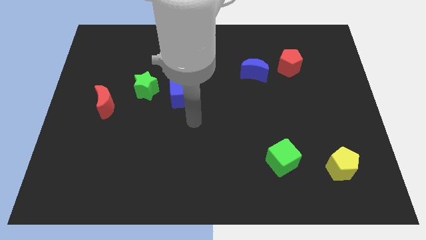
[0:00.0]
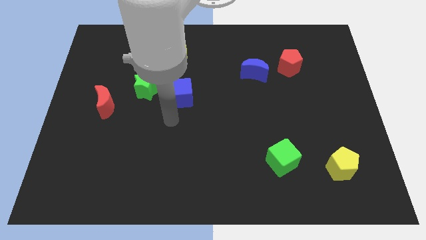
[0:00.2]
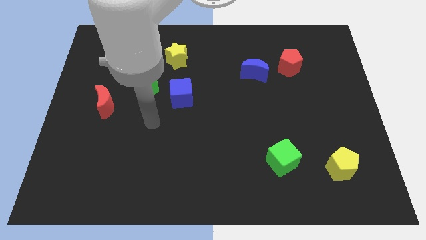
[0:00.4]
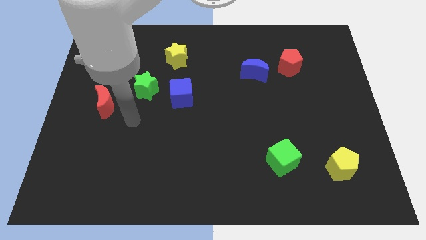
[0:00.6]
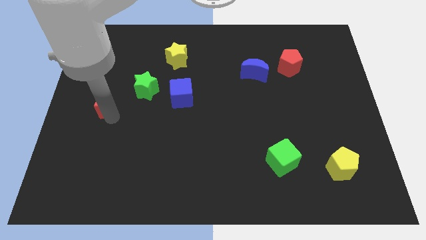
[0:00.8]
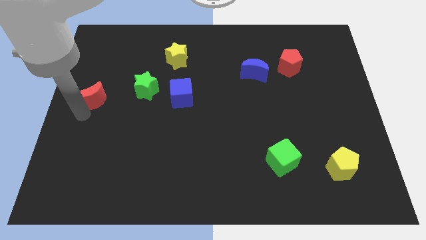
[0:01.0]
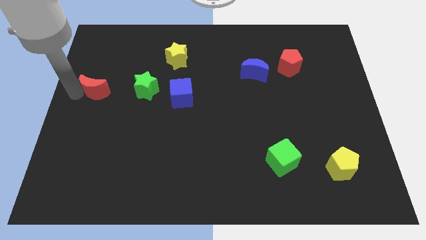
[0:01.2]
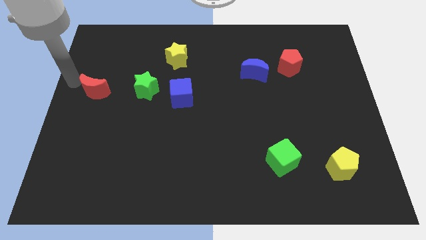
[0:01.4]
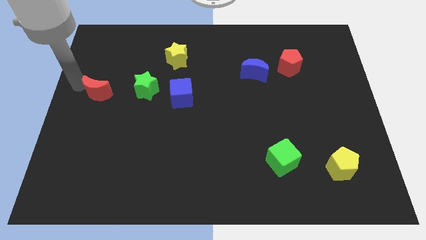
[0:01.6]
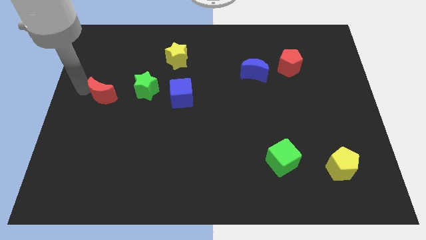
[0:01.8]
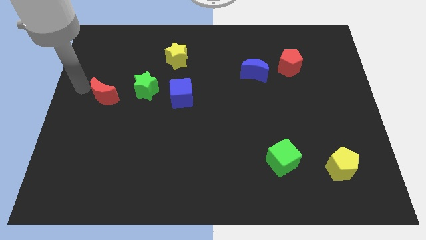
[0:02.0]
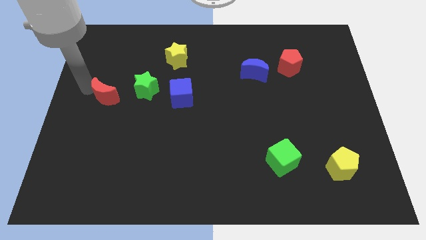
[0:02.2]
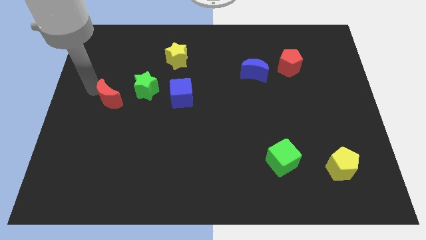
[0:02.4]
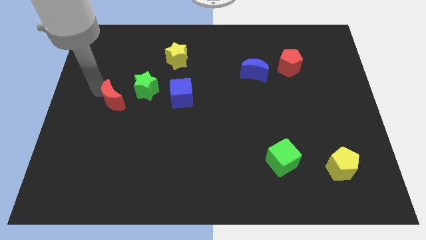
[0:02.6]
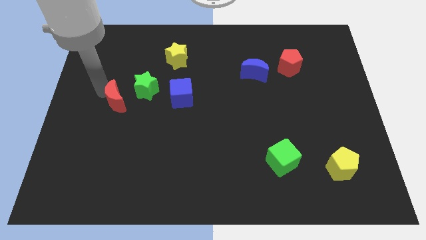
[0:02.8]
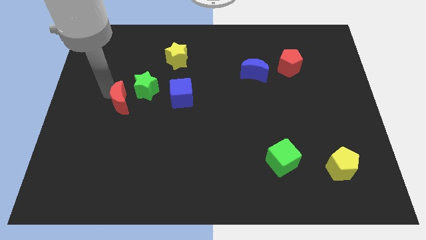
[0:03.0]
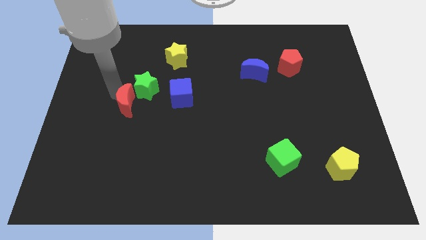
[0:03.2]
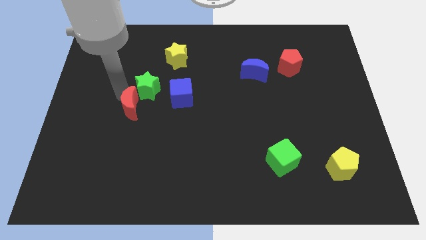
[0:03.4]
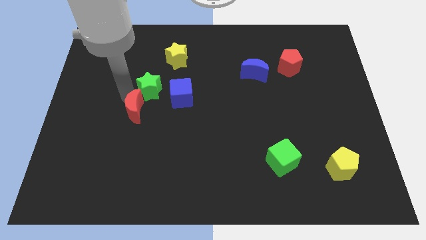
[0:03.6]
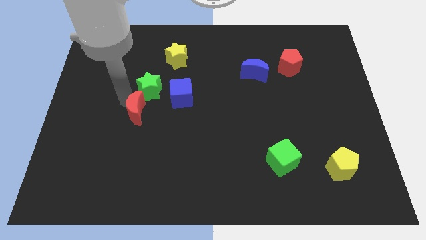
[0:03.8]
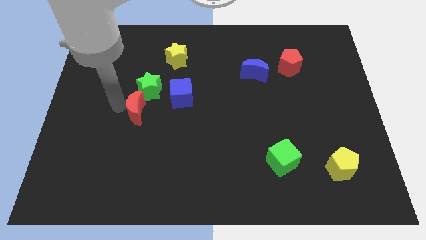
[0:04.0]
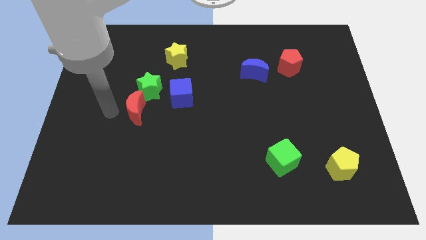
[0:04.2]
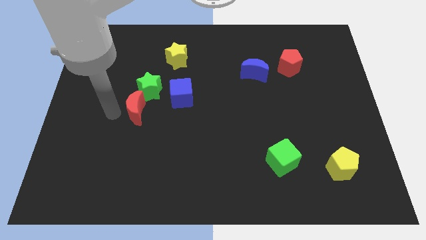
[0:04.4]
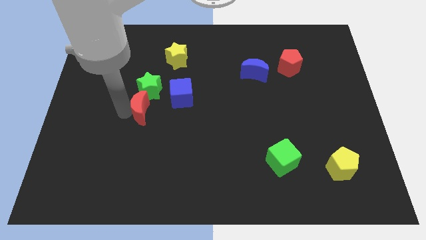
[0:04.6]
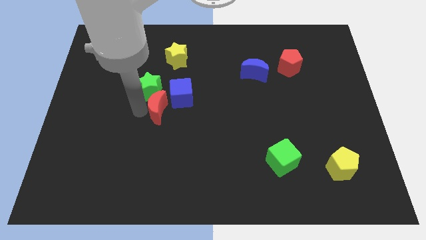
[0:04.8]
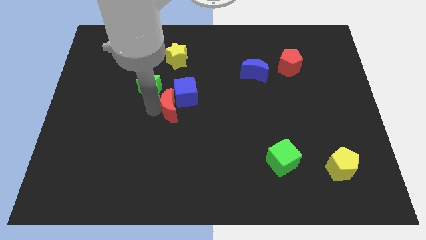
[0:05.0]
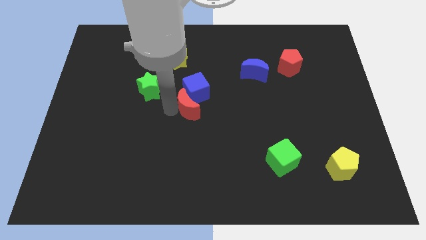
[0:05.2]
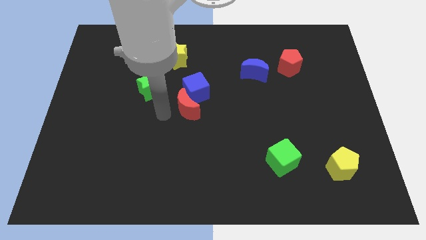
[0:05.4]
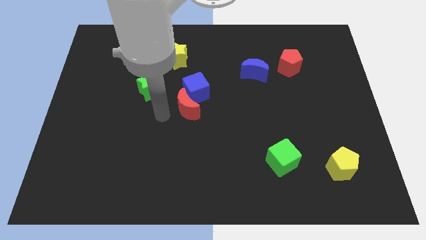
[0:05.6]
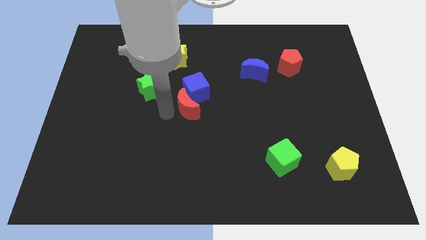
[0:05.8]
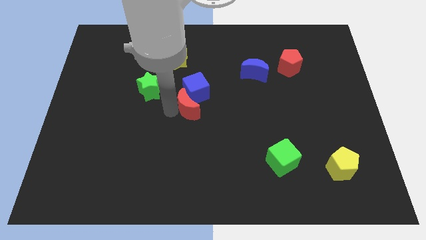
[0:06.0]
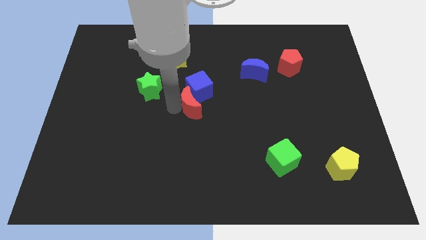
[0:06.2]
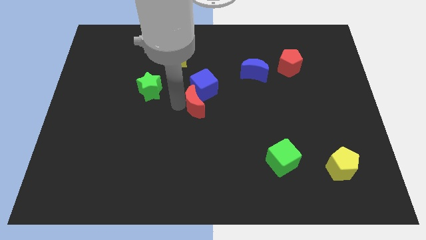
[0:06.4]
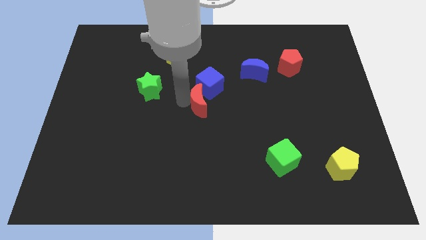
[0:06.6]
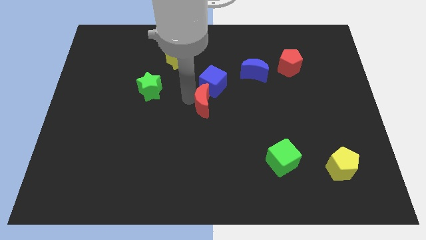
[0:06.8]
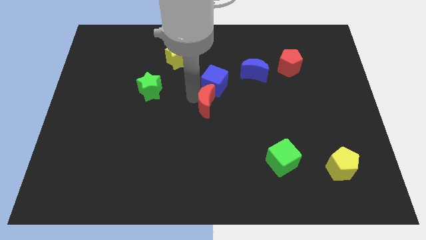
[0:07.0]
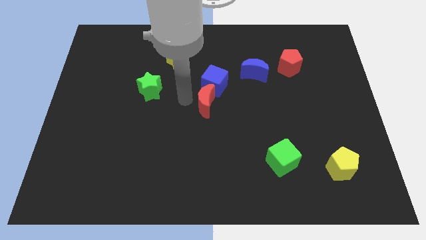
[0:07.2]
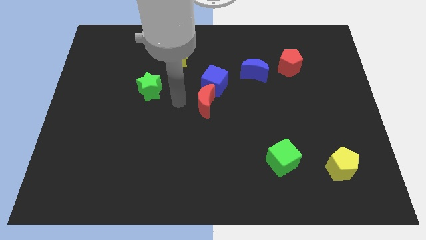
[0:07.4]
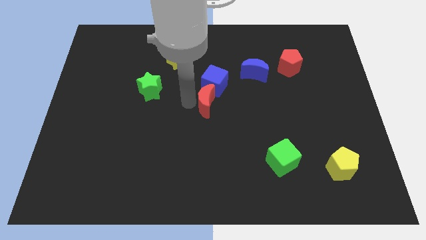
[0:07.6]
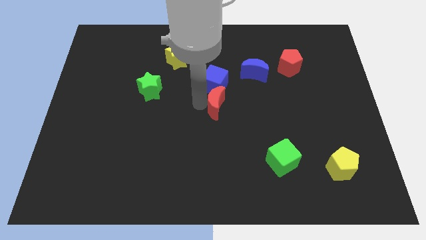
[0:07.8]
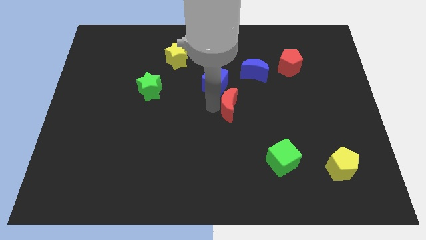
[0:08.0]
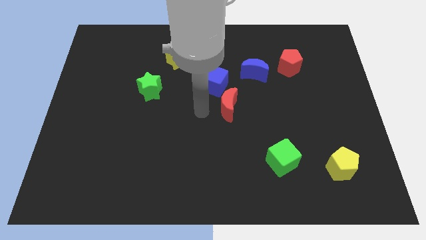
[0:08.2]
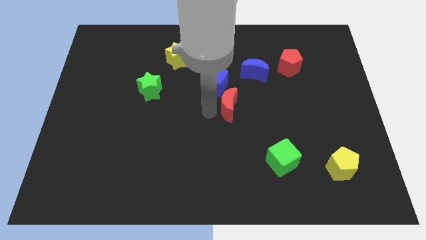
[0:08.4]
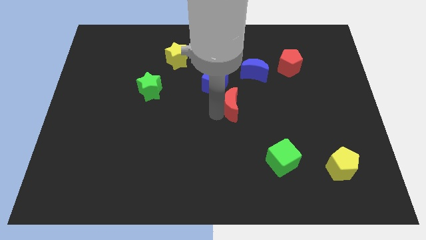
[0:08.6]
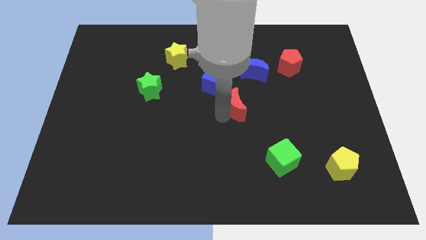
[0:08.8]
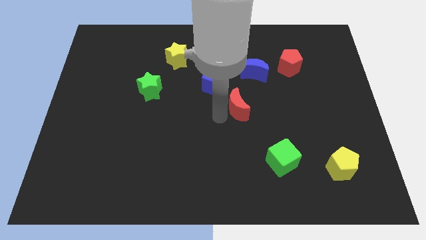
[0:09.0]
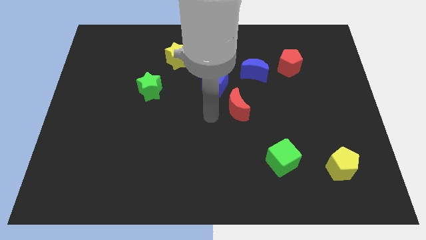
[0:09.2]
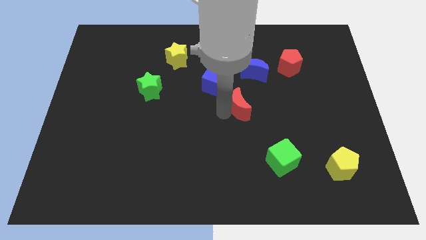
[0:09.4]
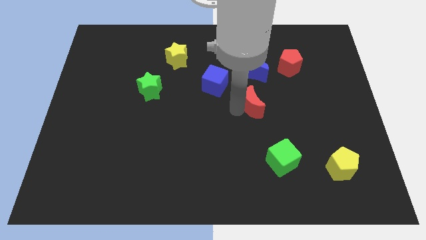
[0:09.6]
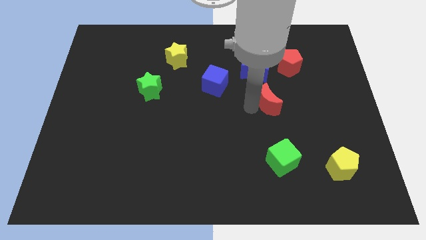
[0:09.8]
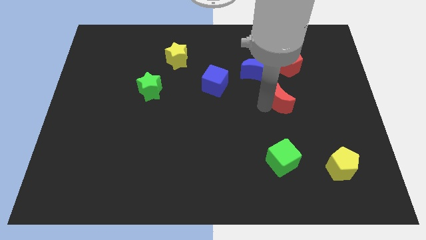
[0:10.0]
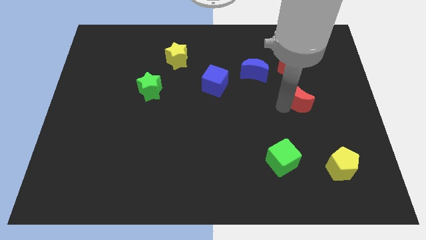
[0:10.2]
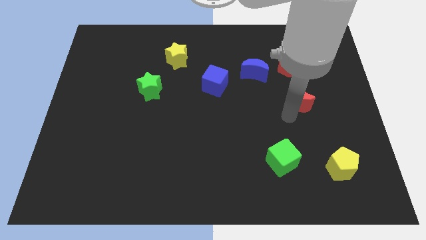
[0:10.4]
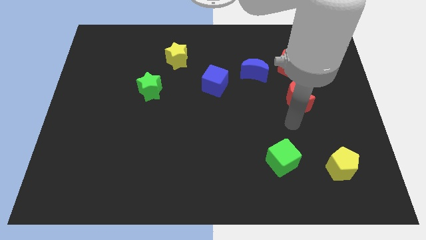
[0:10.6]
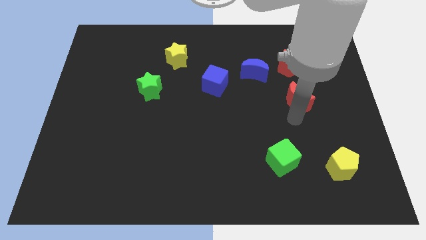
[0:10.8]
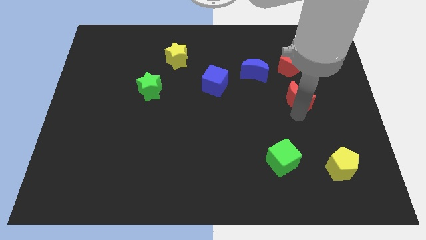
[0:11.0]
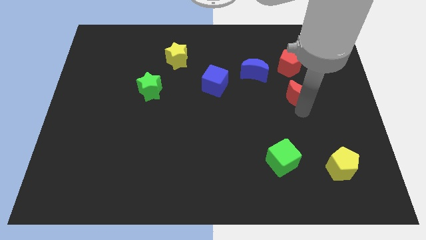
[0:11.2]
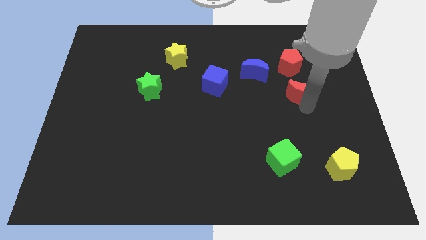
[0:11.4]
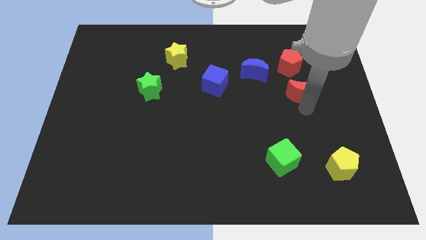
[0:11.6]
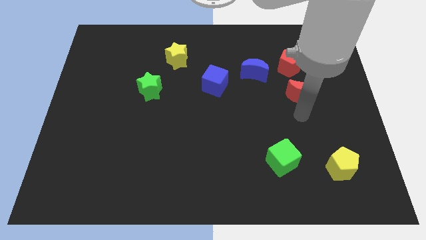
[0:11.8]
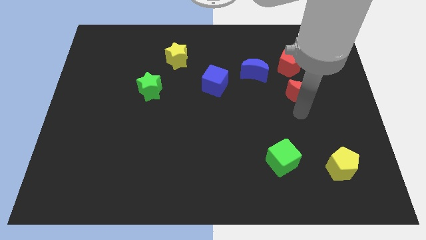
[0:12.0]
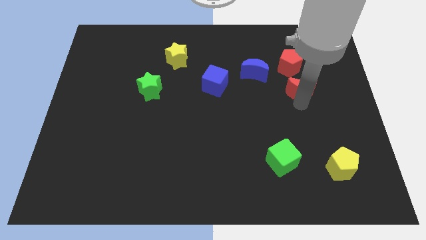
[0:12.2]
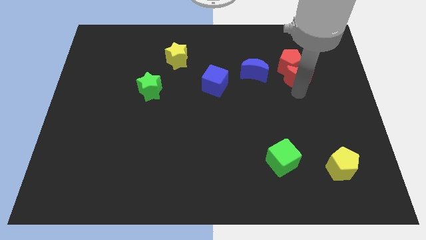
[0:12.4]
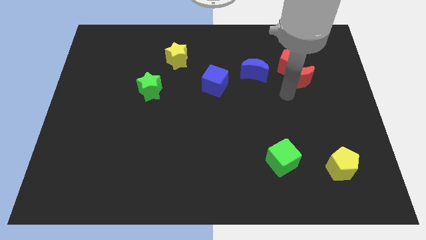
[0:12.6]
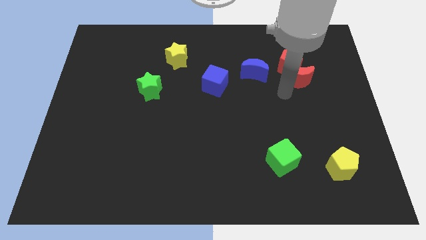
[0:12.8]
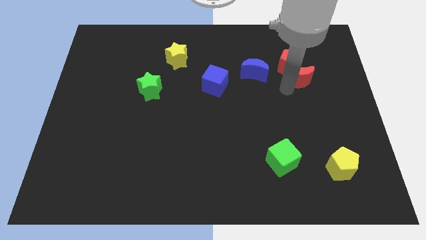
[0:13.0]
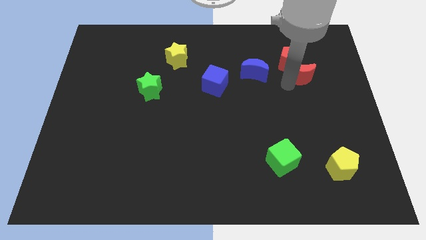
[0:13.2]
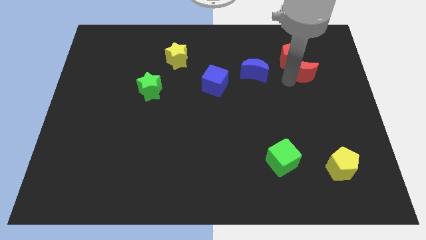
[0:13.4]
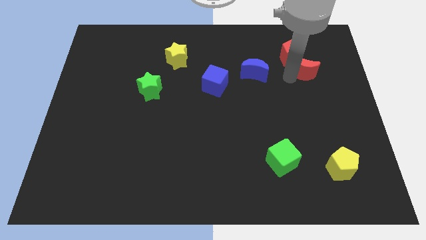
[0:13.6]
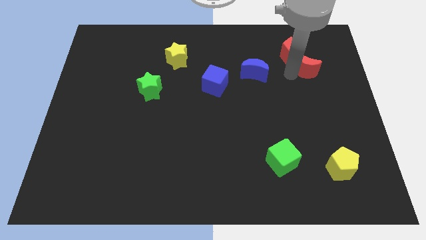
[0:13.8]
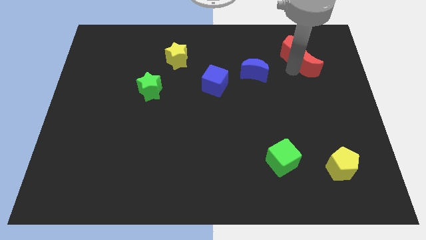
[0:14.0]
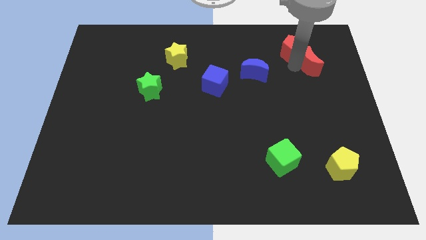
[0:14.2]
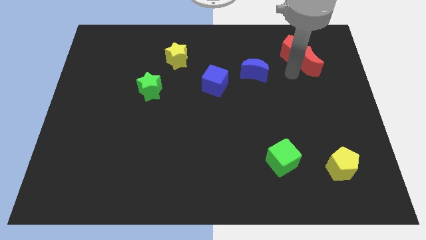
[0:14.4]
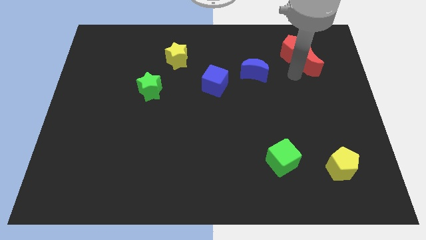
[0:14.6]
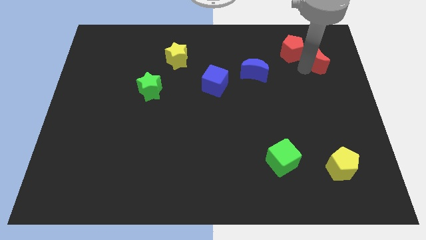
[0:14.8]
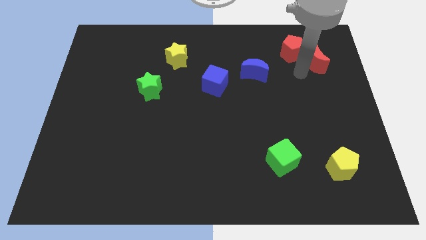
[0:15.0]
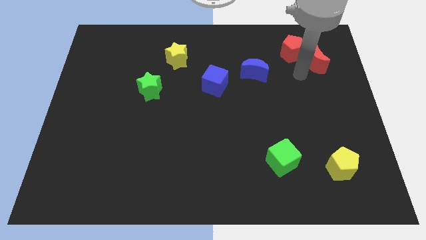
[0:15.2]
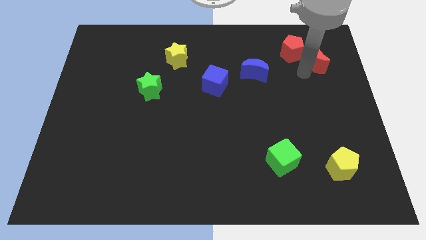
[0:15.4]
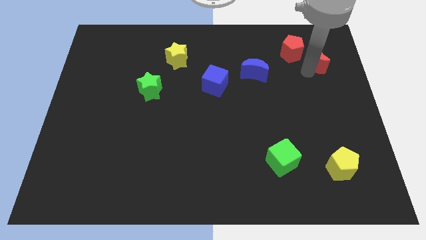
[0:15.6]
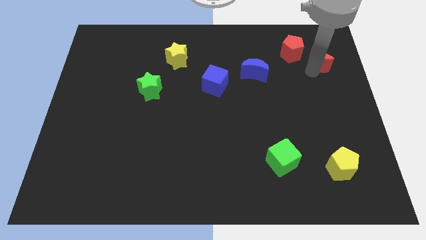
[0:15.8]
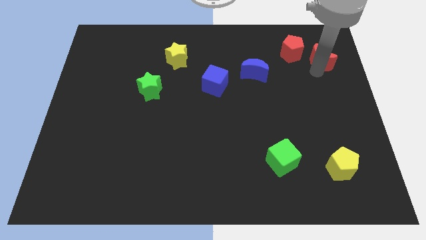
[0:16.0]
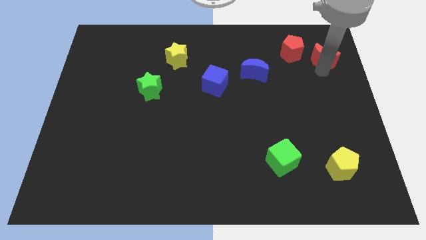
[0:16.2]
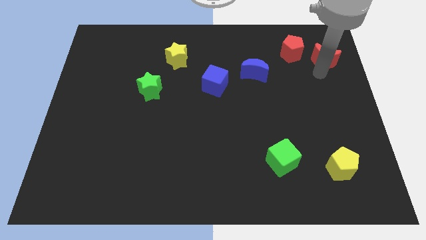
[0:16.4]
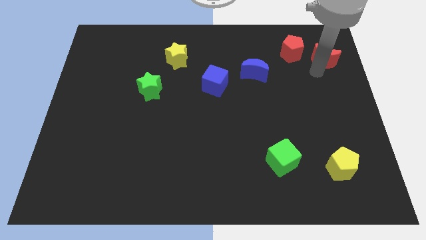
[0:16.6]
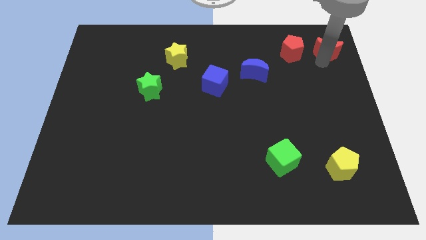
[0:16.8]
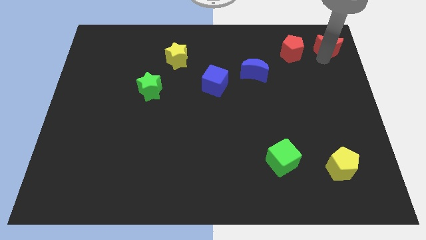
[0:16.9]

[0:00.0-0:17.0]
move the red moon to the top right of the board
